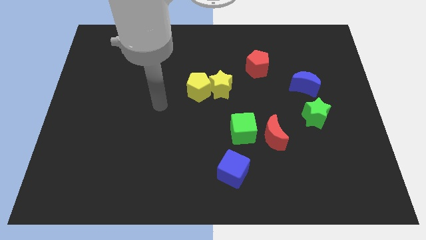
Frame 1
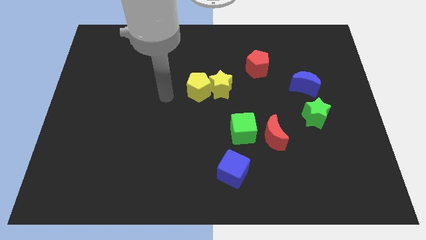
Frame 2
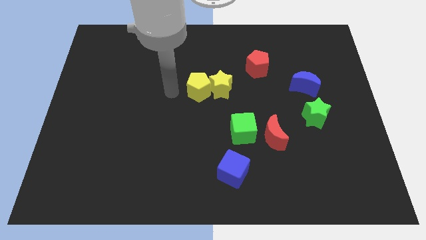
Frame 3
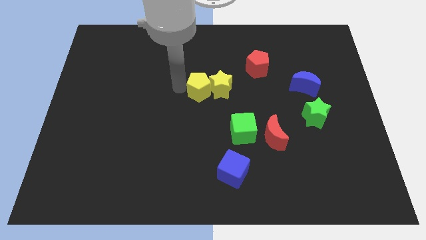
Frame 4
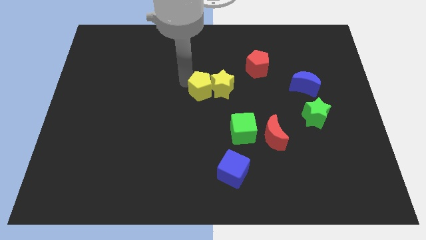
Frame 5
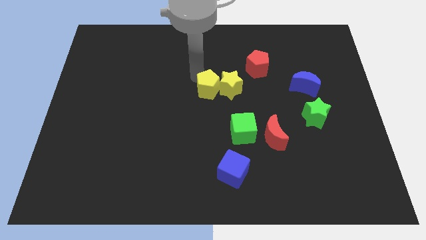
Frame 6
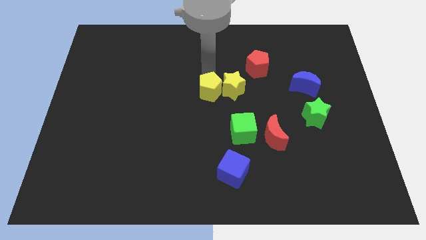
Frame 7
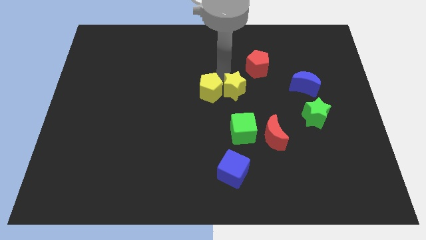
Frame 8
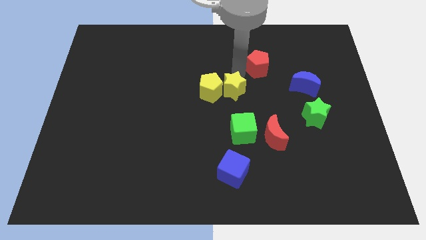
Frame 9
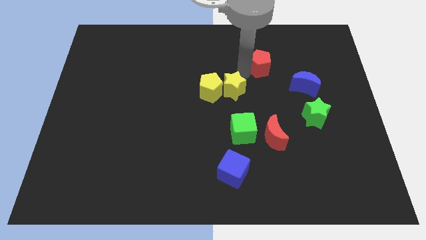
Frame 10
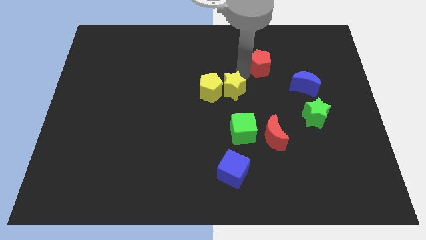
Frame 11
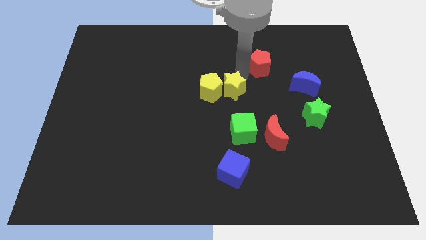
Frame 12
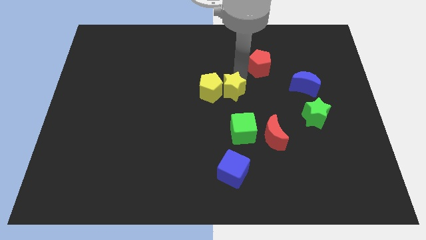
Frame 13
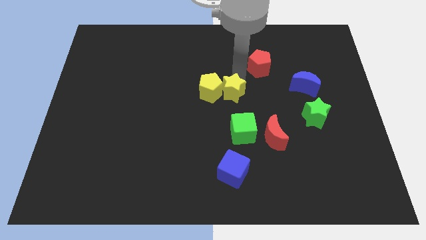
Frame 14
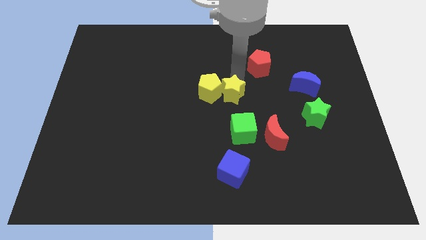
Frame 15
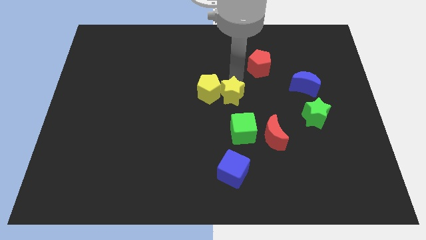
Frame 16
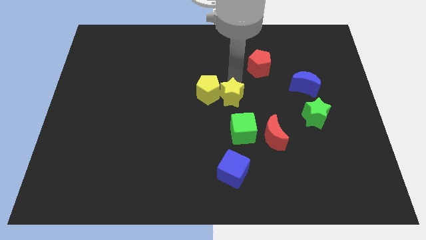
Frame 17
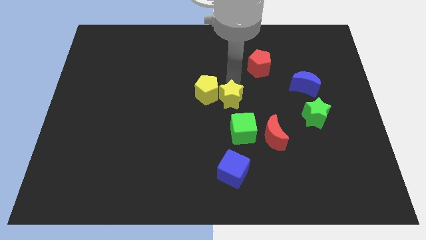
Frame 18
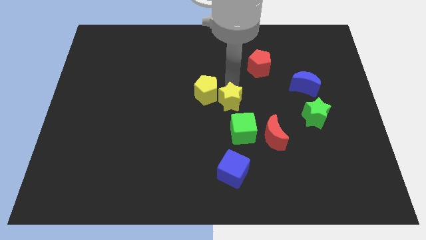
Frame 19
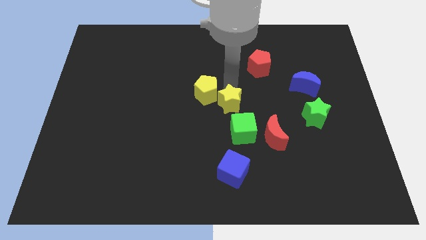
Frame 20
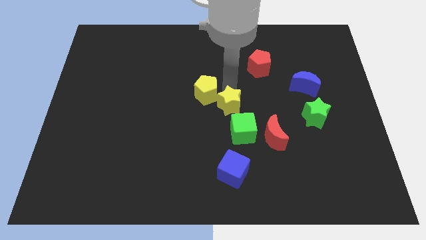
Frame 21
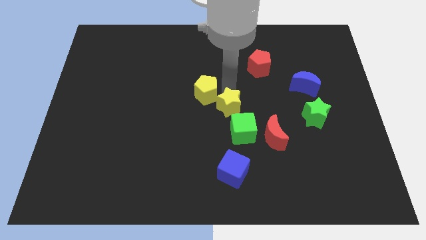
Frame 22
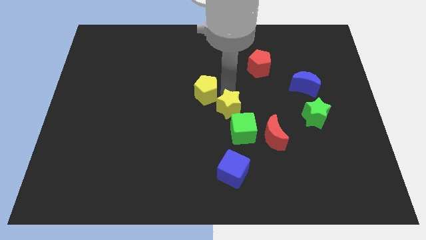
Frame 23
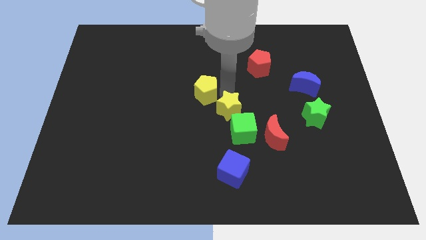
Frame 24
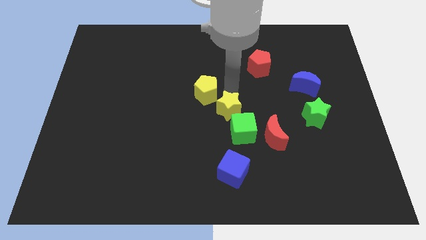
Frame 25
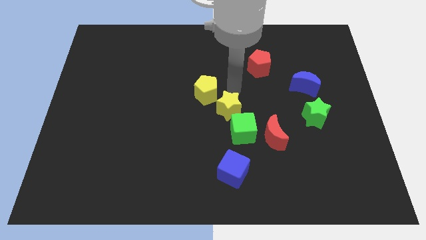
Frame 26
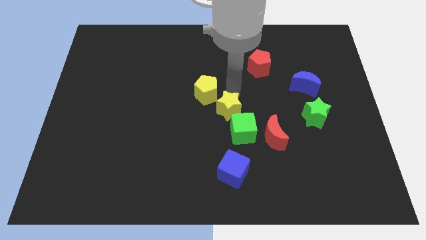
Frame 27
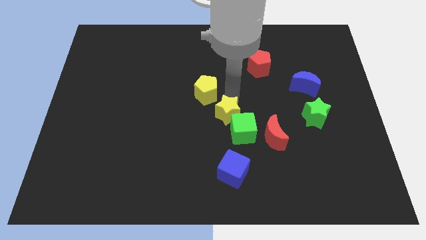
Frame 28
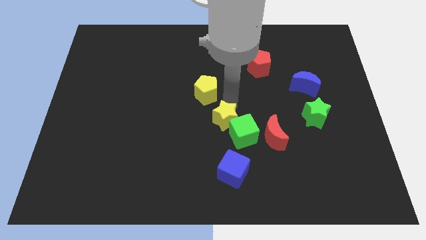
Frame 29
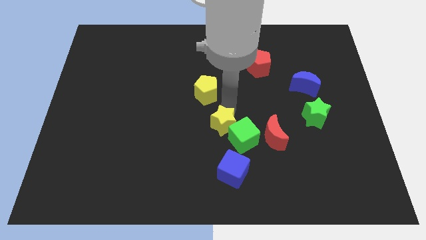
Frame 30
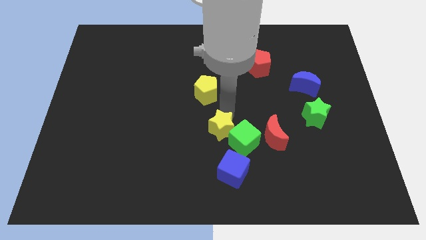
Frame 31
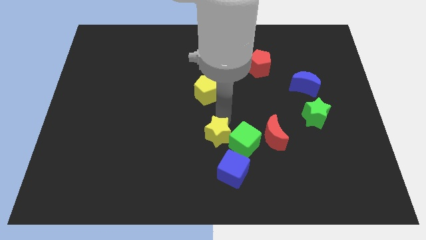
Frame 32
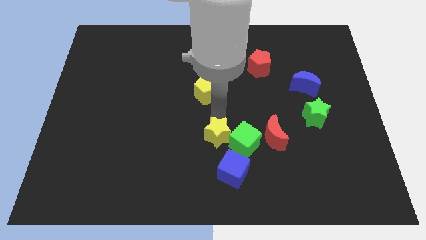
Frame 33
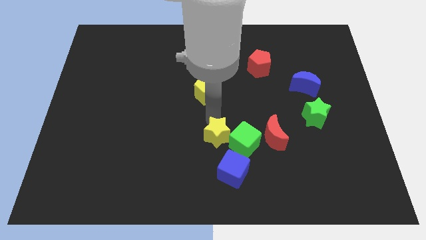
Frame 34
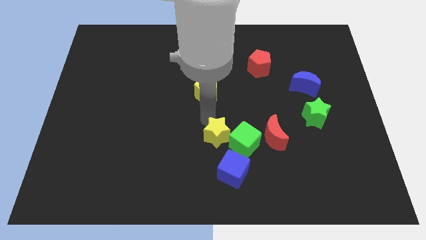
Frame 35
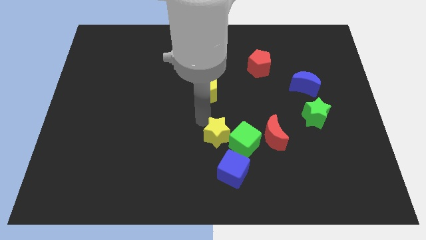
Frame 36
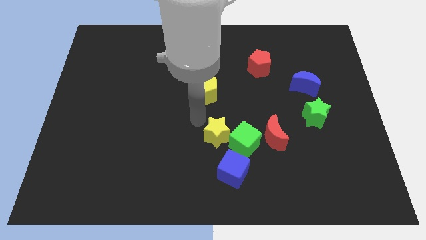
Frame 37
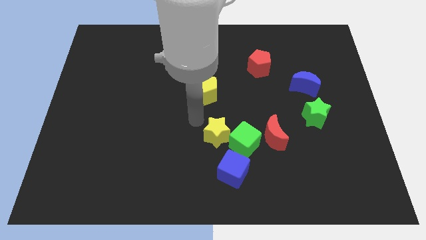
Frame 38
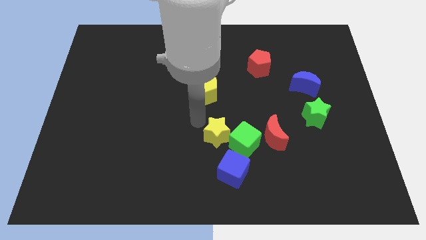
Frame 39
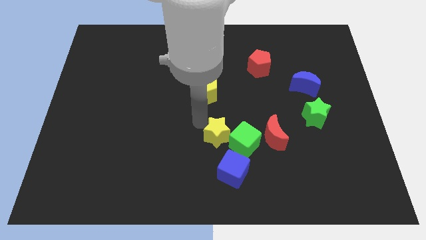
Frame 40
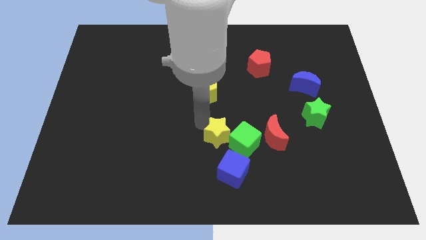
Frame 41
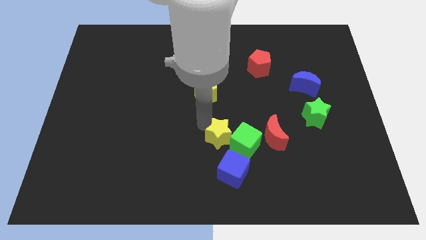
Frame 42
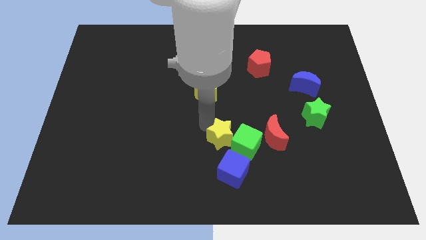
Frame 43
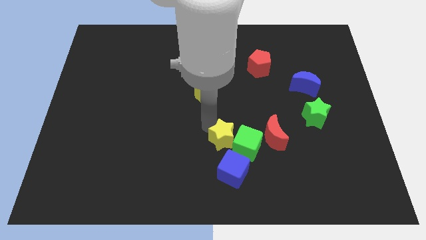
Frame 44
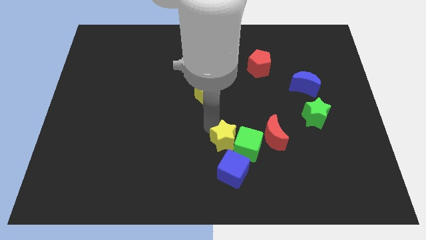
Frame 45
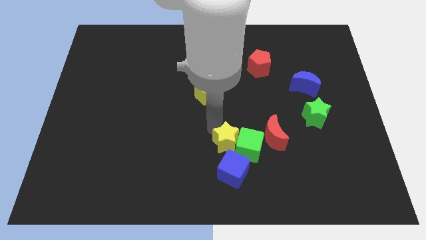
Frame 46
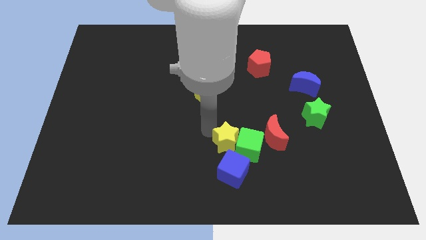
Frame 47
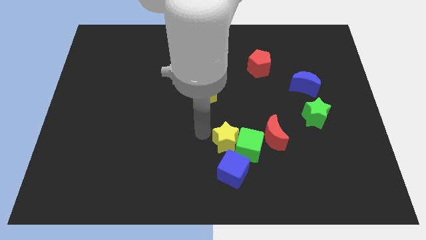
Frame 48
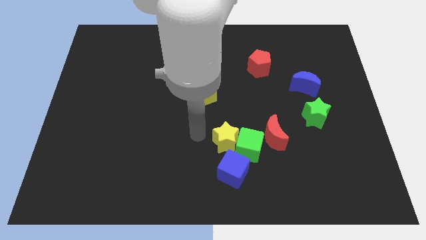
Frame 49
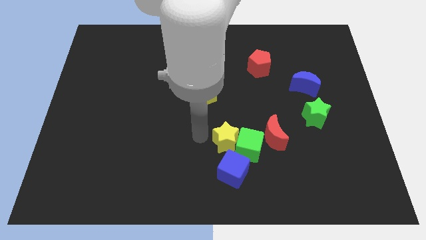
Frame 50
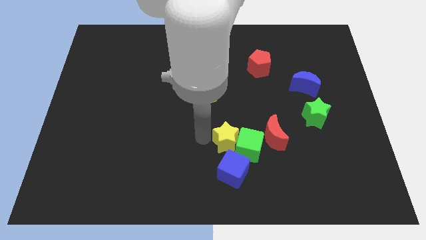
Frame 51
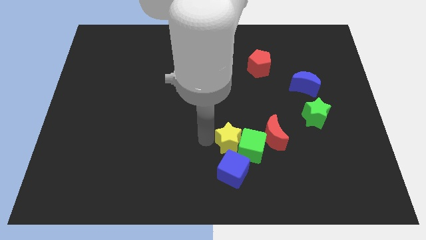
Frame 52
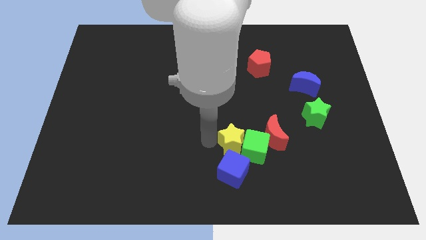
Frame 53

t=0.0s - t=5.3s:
put the yellow star to the top right side of the blue cube

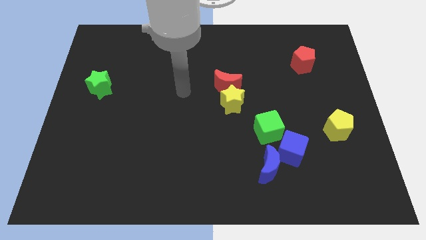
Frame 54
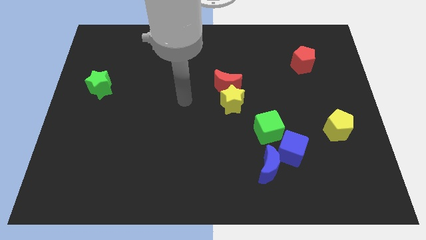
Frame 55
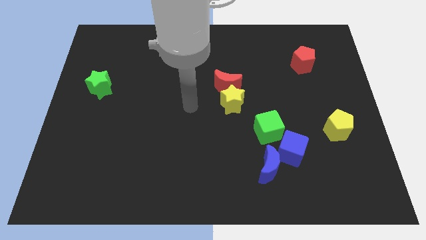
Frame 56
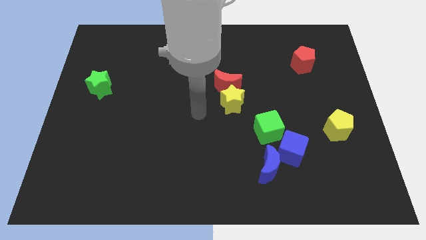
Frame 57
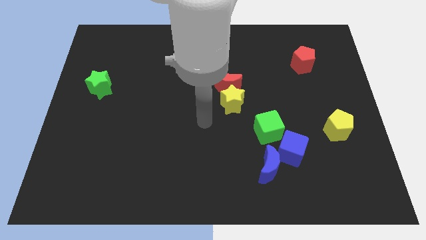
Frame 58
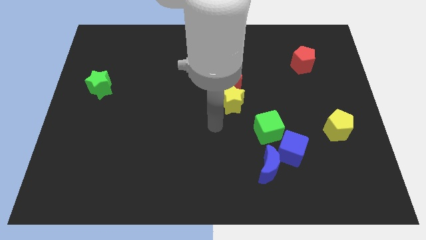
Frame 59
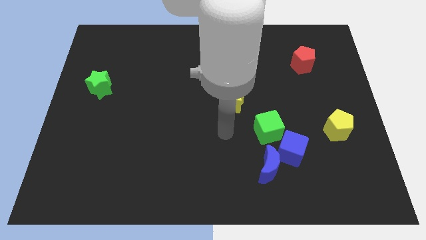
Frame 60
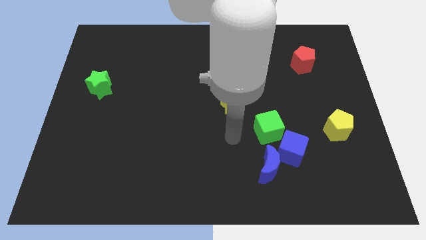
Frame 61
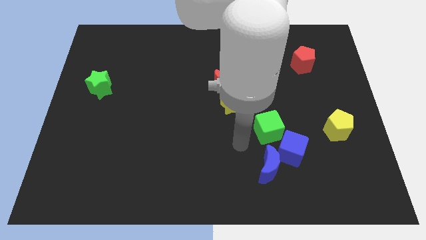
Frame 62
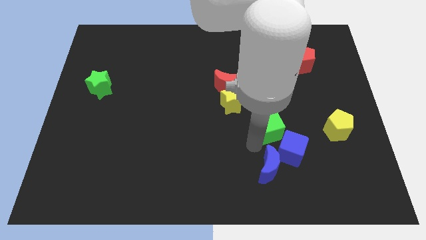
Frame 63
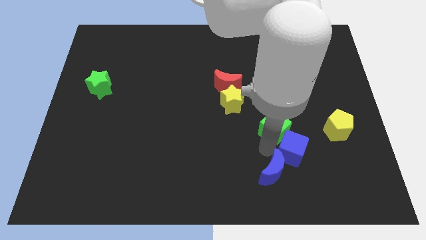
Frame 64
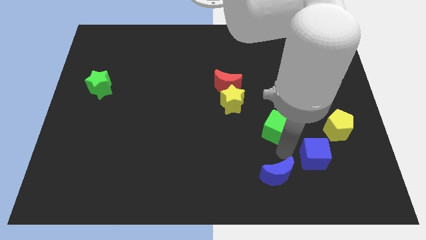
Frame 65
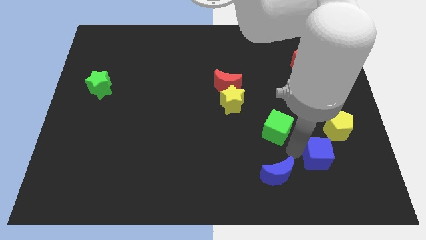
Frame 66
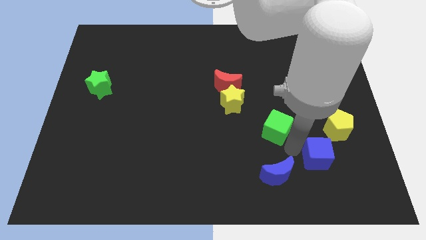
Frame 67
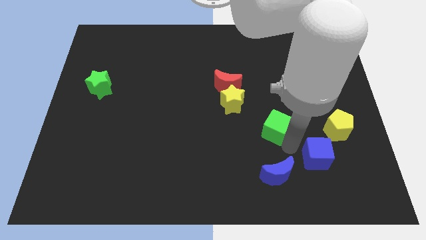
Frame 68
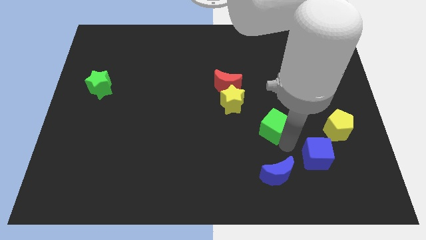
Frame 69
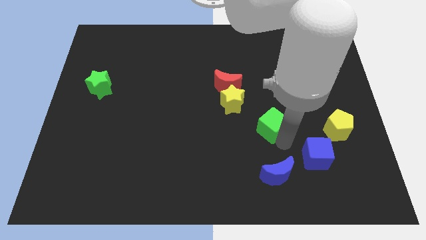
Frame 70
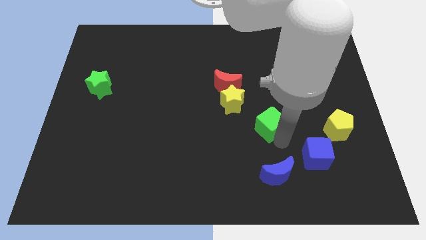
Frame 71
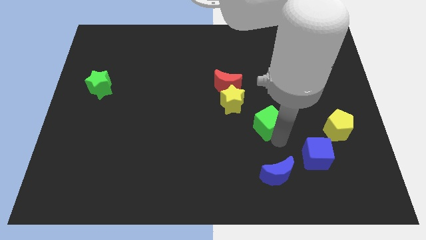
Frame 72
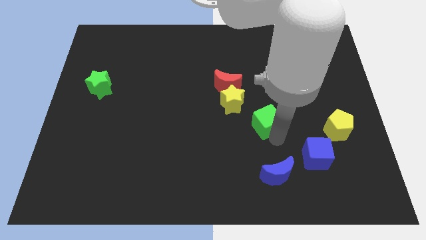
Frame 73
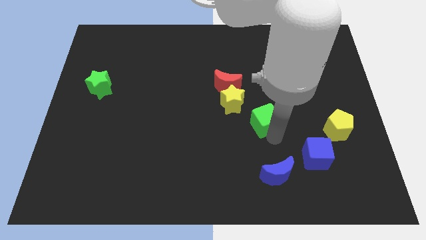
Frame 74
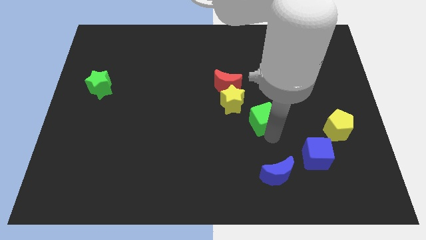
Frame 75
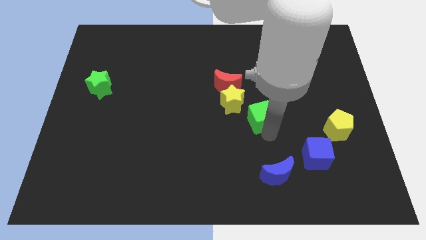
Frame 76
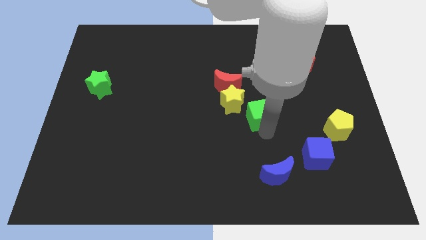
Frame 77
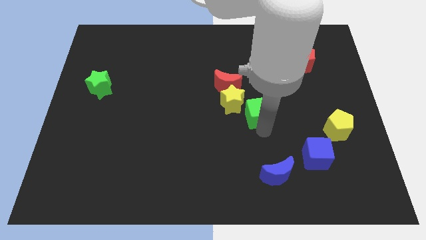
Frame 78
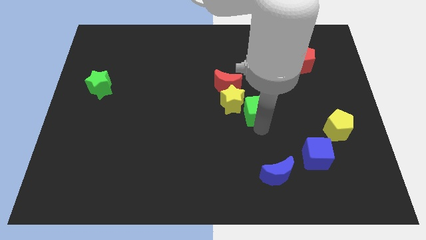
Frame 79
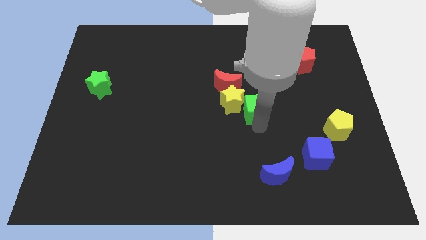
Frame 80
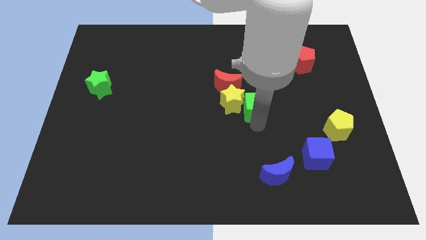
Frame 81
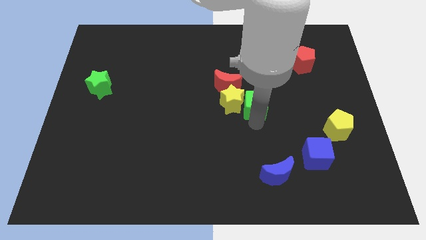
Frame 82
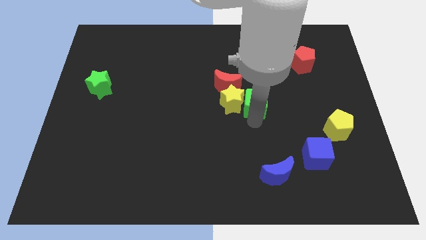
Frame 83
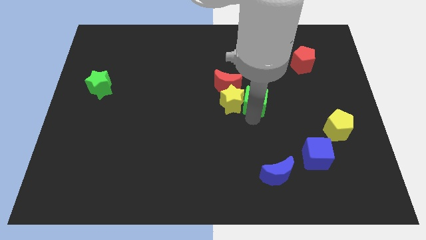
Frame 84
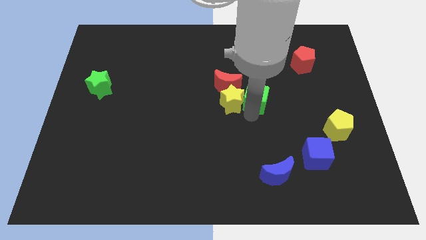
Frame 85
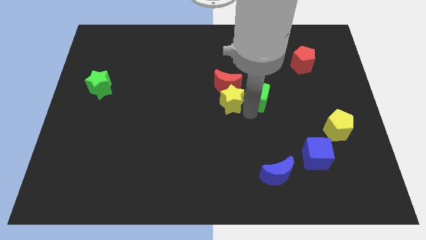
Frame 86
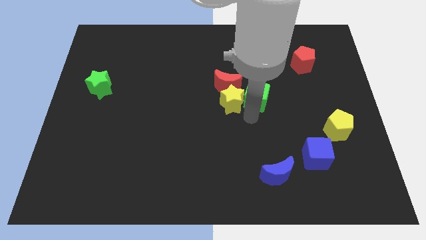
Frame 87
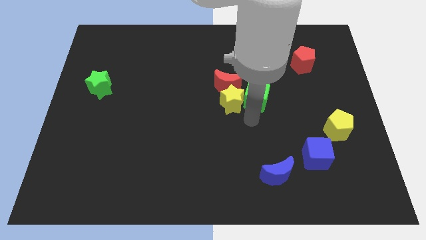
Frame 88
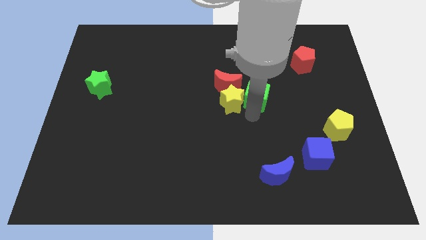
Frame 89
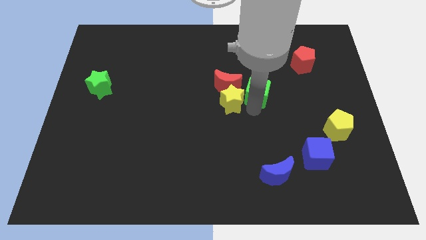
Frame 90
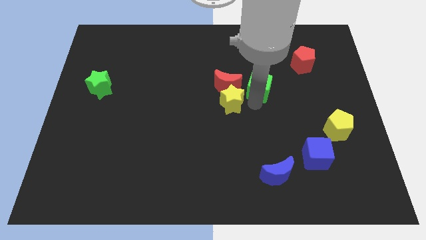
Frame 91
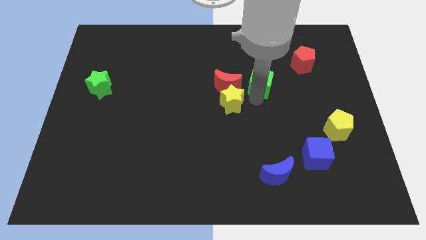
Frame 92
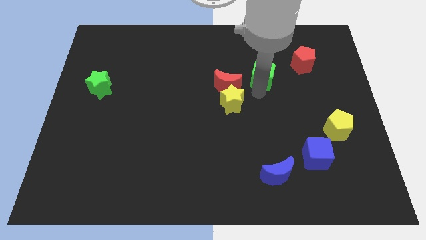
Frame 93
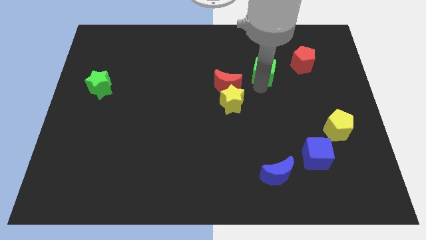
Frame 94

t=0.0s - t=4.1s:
put the green cube to the left of the red pentagon
